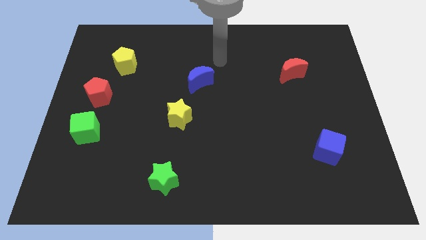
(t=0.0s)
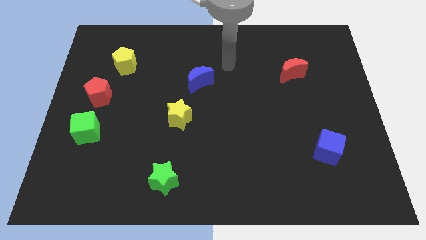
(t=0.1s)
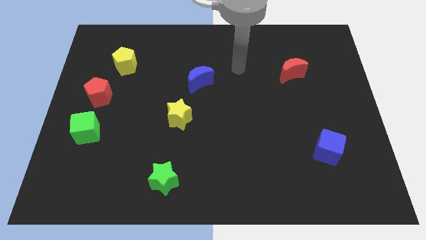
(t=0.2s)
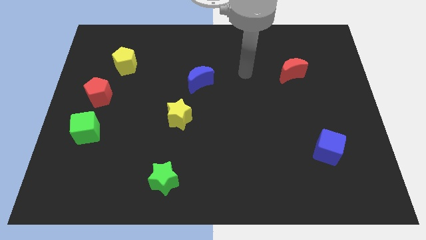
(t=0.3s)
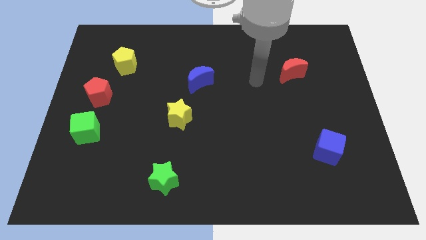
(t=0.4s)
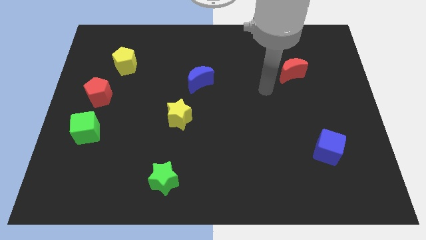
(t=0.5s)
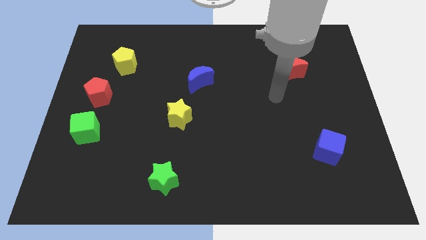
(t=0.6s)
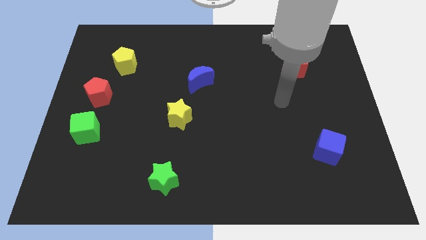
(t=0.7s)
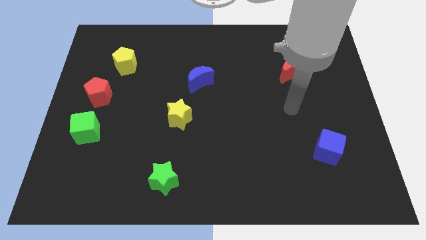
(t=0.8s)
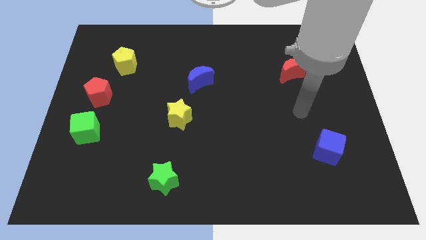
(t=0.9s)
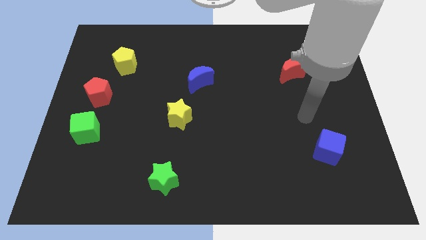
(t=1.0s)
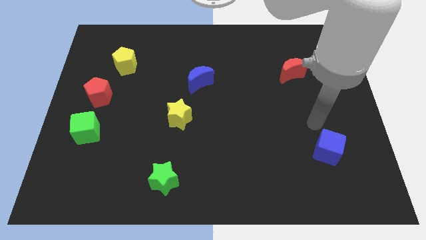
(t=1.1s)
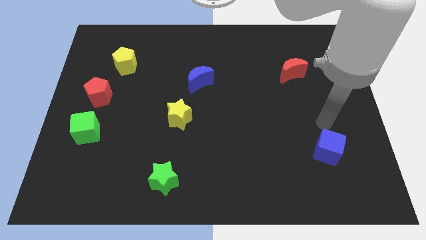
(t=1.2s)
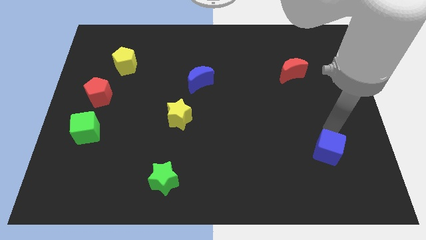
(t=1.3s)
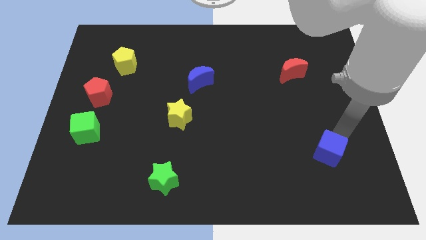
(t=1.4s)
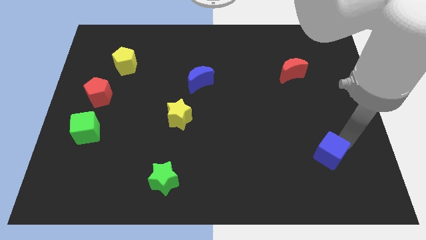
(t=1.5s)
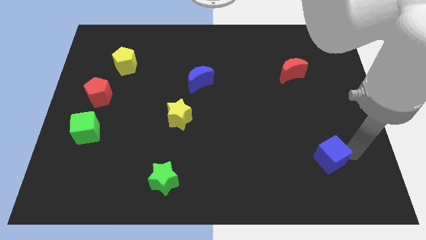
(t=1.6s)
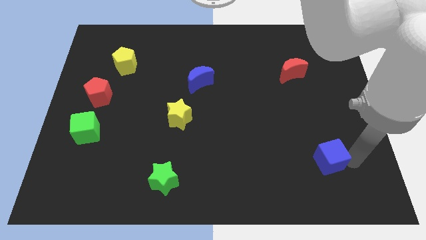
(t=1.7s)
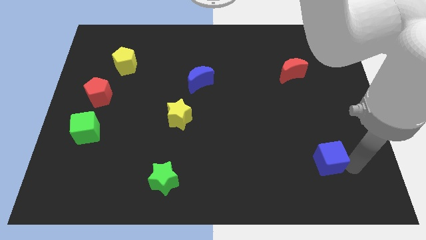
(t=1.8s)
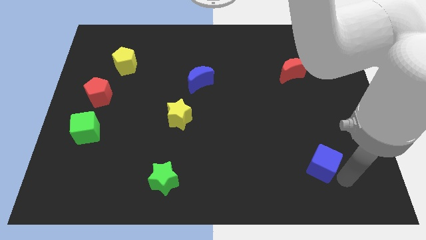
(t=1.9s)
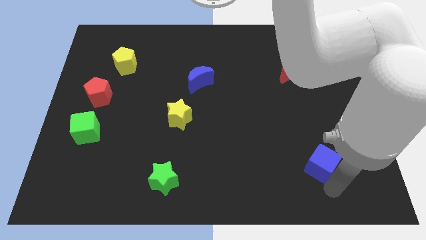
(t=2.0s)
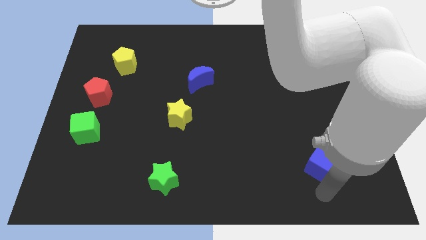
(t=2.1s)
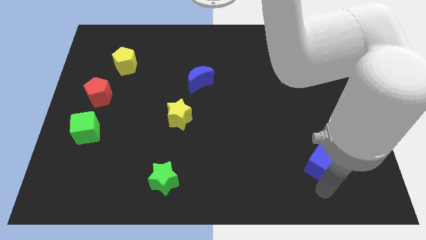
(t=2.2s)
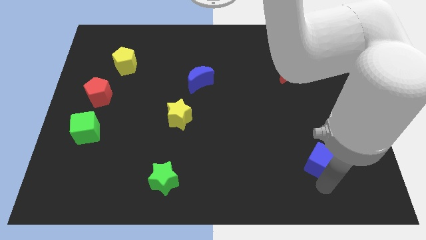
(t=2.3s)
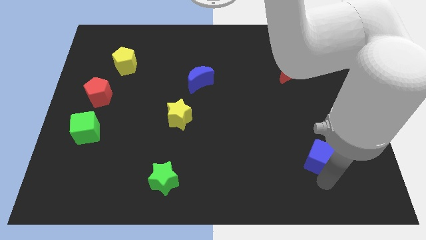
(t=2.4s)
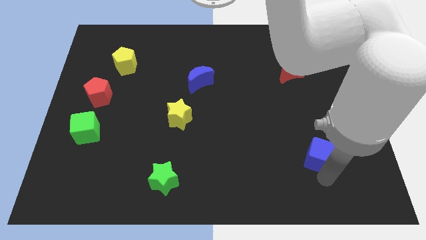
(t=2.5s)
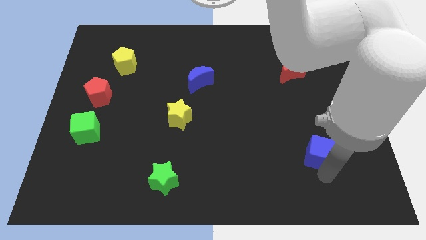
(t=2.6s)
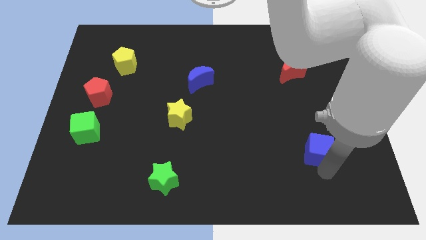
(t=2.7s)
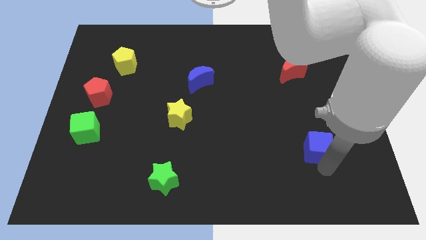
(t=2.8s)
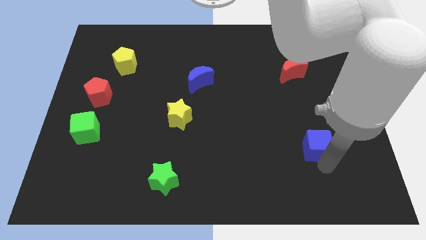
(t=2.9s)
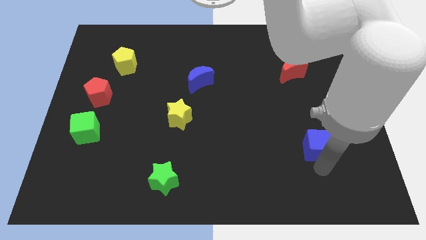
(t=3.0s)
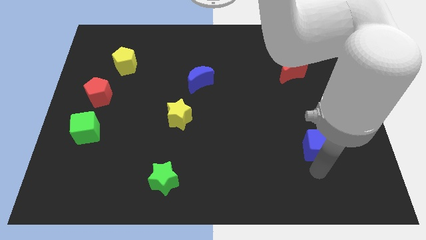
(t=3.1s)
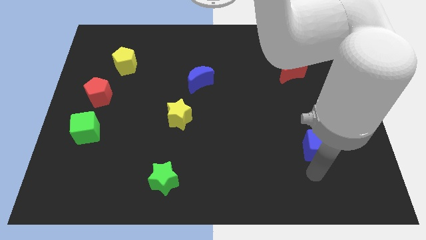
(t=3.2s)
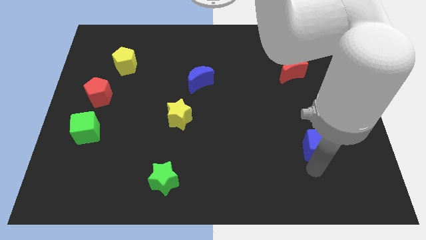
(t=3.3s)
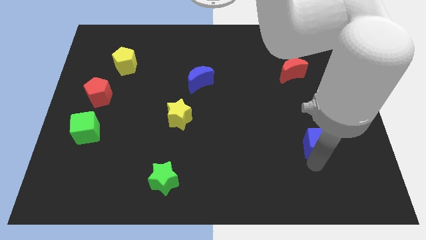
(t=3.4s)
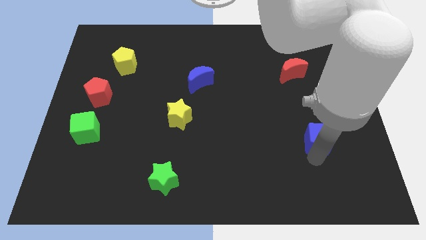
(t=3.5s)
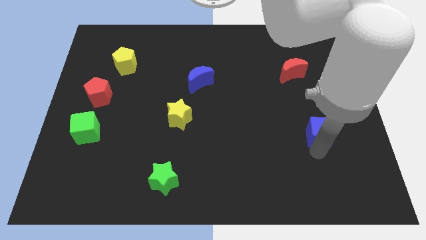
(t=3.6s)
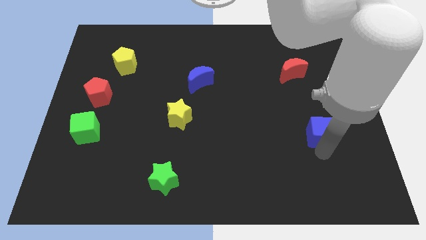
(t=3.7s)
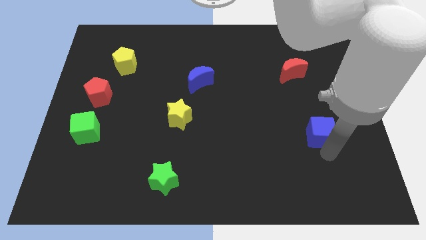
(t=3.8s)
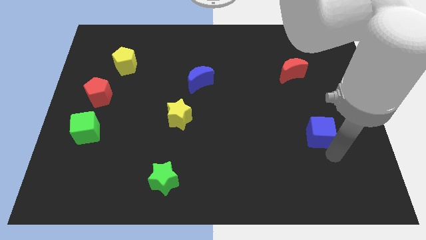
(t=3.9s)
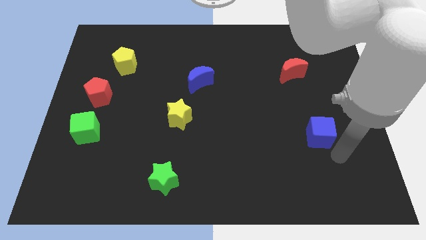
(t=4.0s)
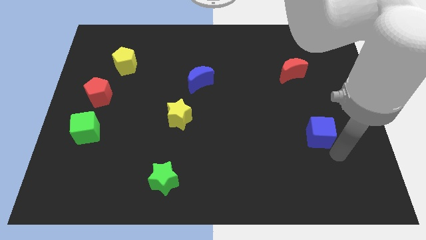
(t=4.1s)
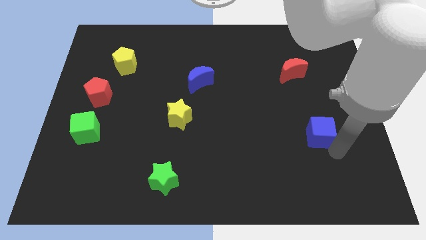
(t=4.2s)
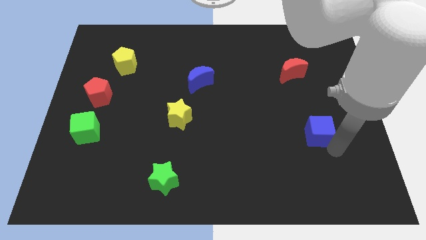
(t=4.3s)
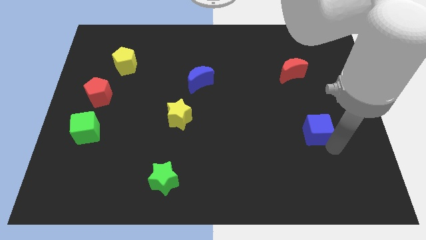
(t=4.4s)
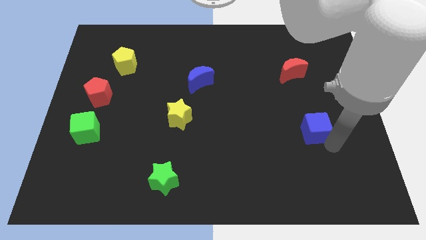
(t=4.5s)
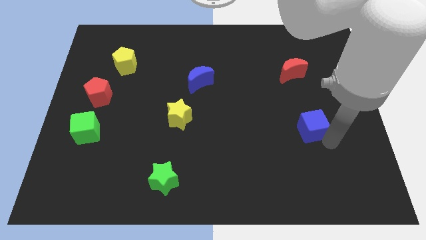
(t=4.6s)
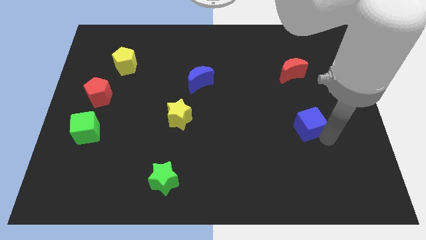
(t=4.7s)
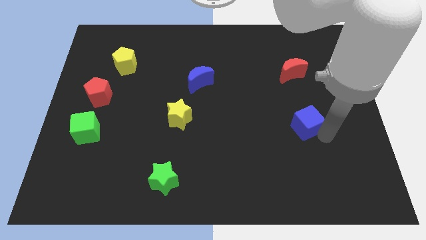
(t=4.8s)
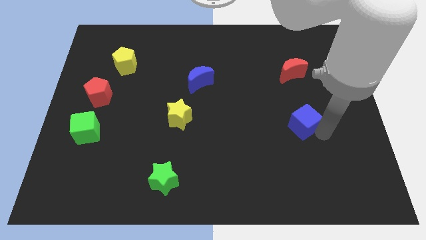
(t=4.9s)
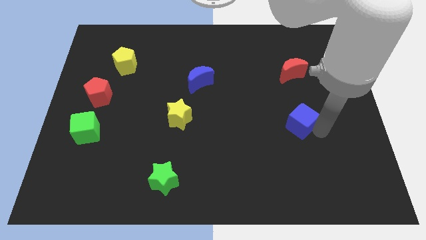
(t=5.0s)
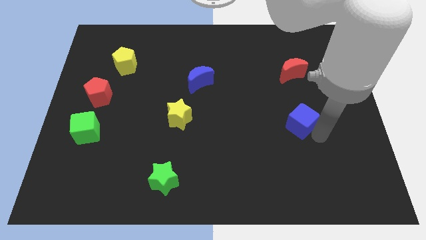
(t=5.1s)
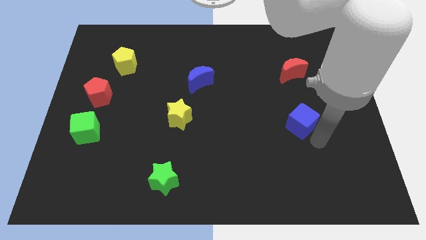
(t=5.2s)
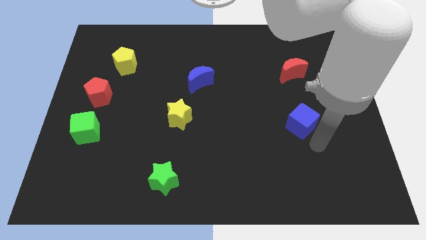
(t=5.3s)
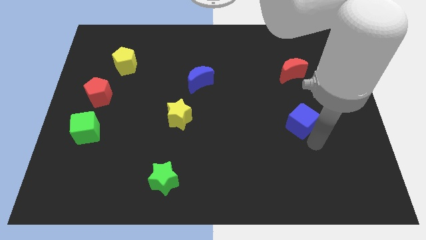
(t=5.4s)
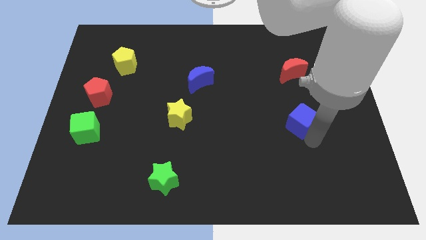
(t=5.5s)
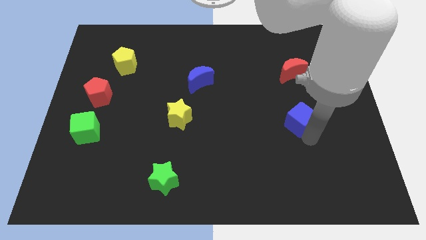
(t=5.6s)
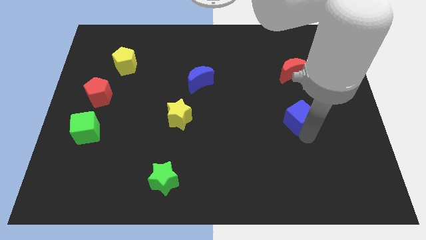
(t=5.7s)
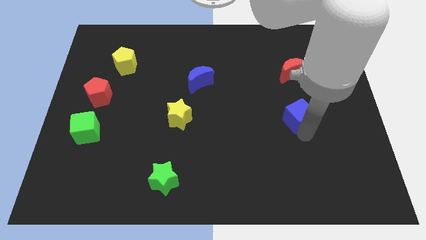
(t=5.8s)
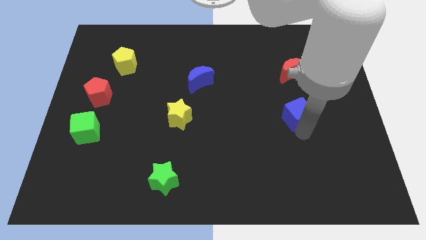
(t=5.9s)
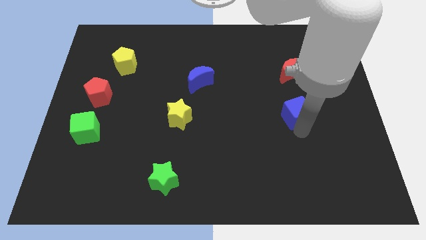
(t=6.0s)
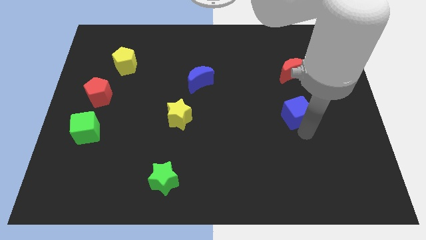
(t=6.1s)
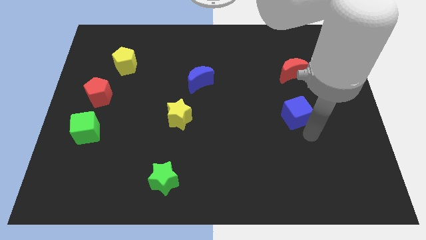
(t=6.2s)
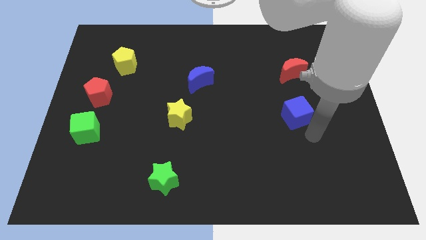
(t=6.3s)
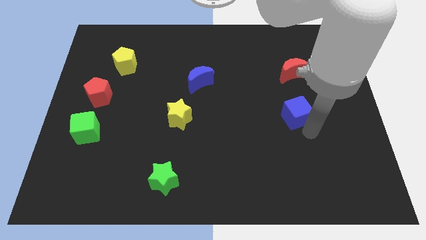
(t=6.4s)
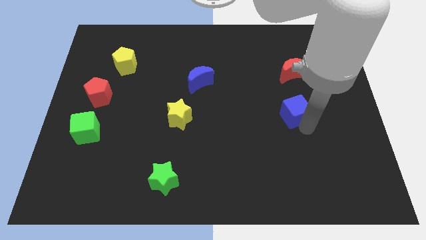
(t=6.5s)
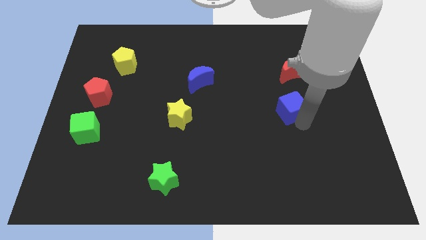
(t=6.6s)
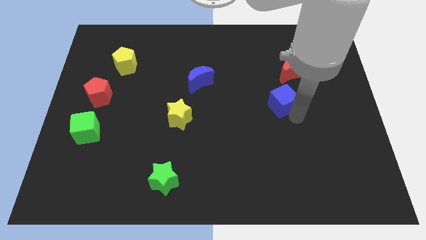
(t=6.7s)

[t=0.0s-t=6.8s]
put the blue cube diagonally down and to the left of the red moon
